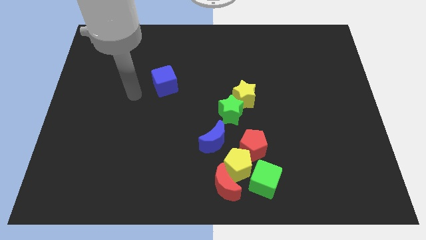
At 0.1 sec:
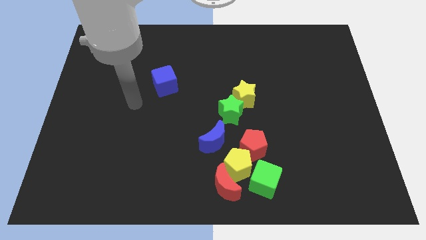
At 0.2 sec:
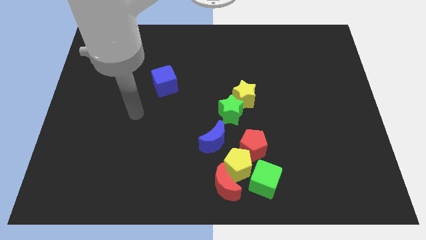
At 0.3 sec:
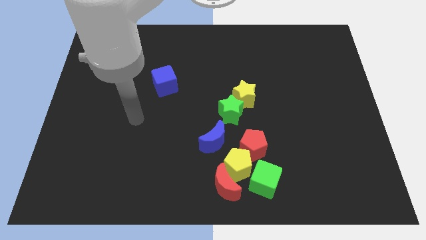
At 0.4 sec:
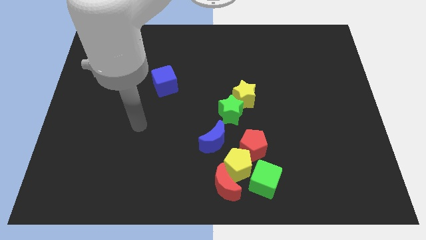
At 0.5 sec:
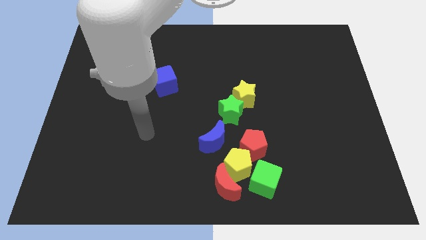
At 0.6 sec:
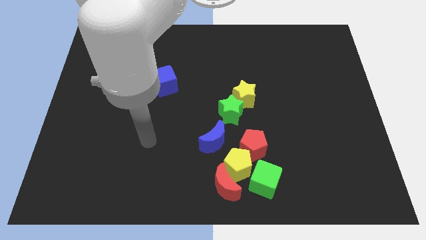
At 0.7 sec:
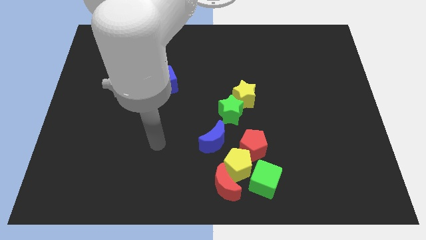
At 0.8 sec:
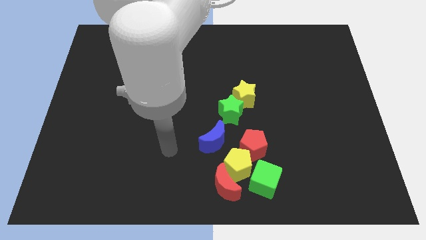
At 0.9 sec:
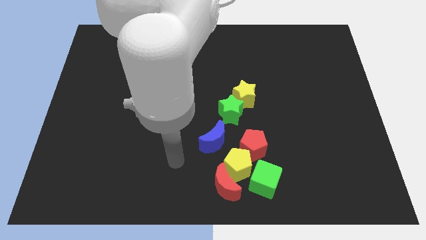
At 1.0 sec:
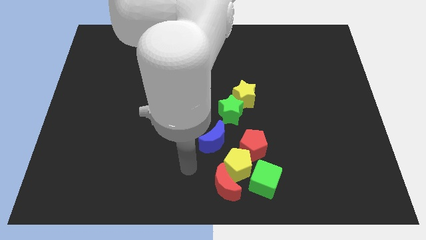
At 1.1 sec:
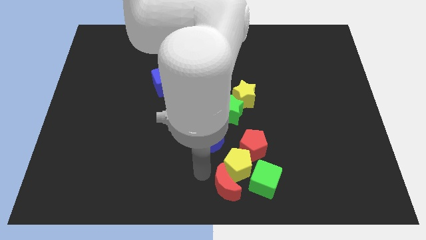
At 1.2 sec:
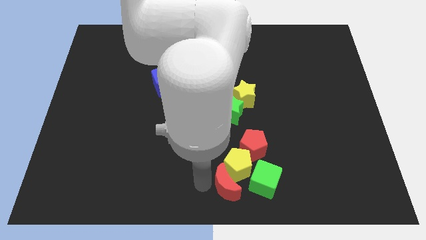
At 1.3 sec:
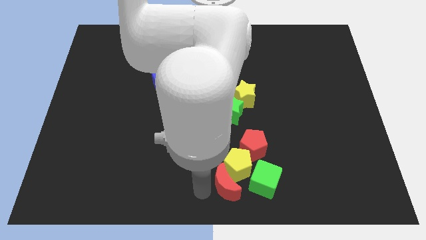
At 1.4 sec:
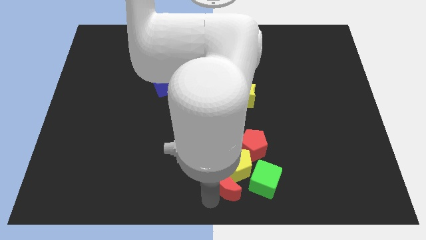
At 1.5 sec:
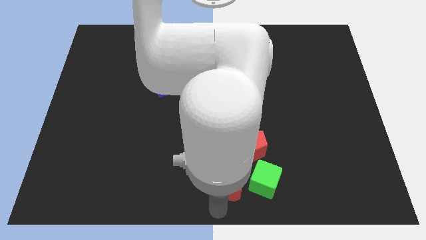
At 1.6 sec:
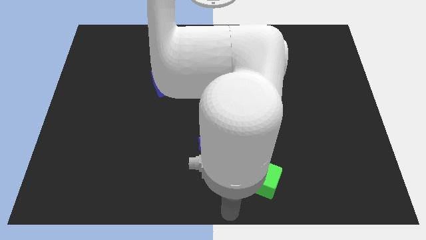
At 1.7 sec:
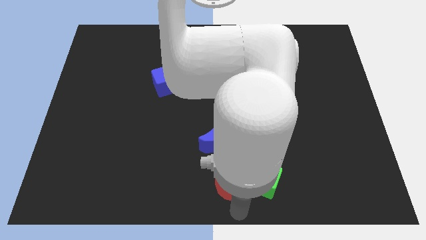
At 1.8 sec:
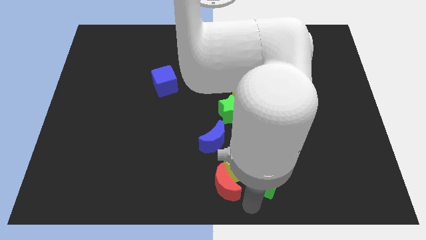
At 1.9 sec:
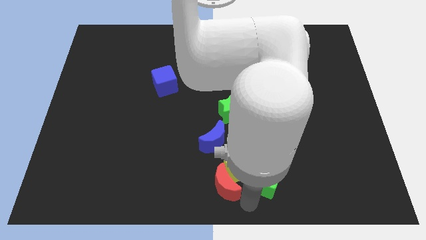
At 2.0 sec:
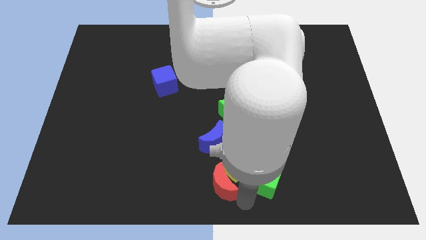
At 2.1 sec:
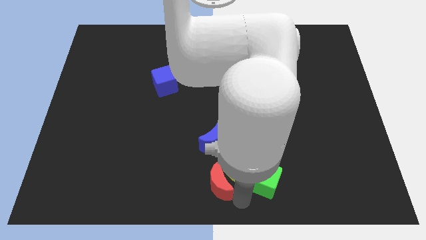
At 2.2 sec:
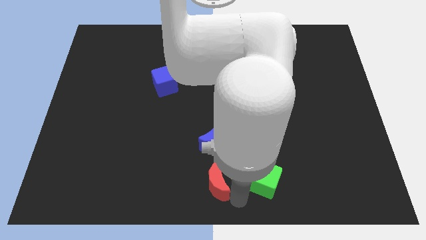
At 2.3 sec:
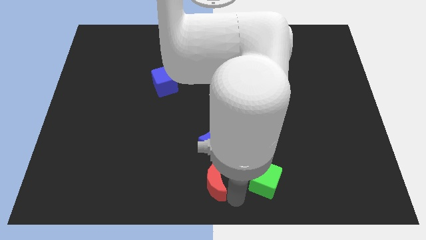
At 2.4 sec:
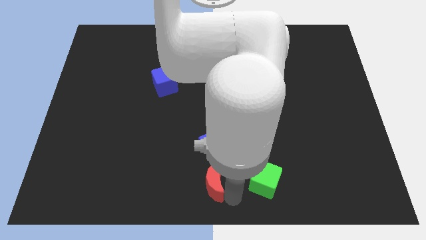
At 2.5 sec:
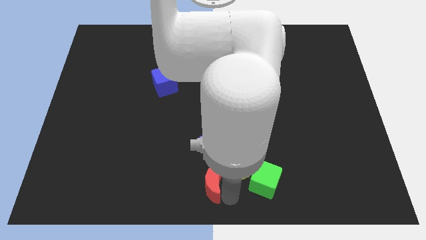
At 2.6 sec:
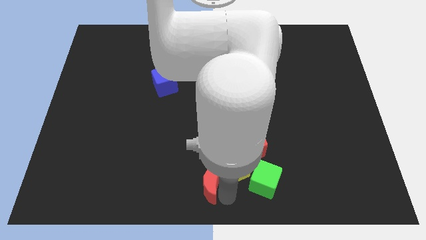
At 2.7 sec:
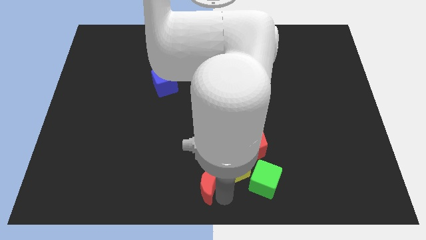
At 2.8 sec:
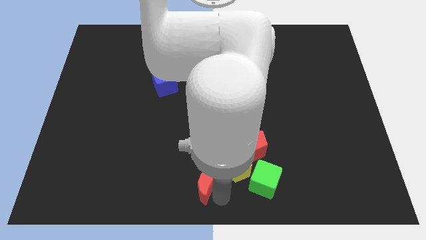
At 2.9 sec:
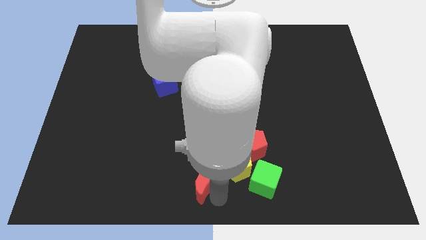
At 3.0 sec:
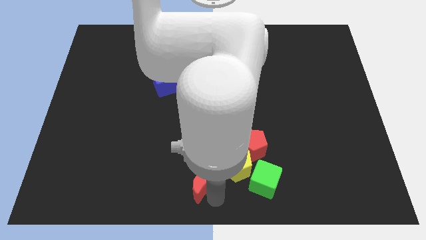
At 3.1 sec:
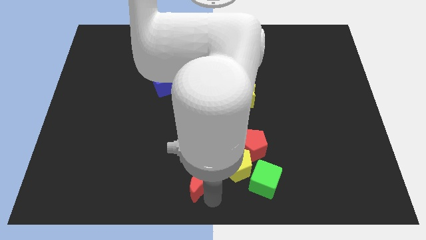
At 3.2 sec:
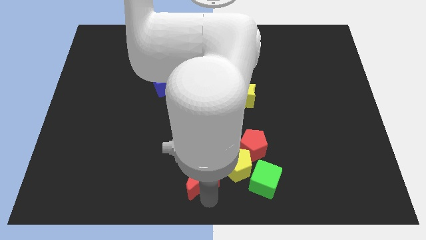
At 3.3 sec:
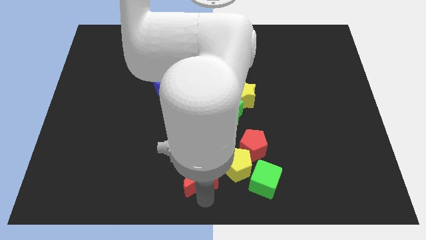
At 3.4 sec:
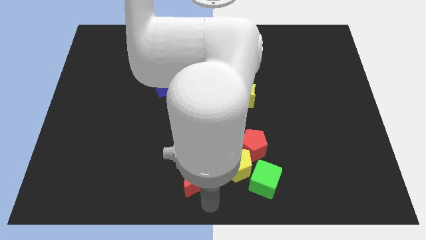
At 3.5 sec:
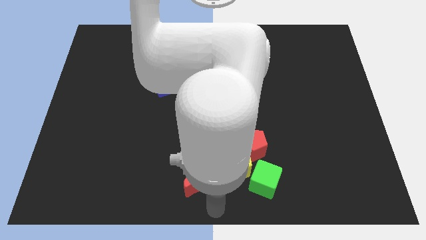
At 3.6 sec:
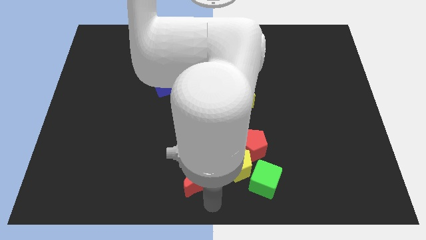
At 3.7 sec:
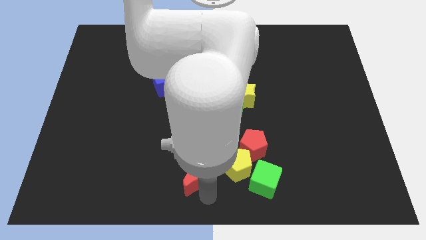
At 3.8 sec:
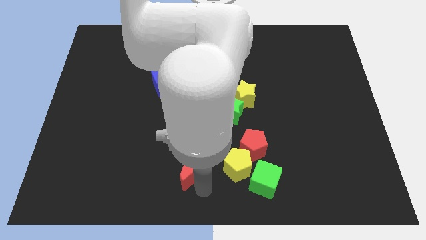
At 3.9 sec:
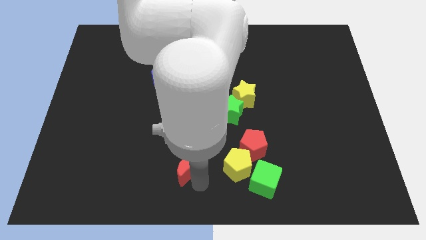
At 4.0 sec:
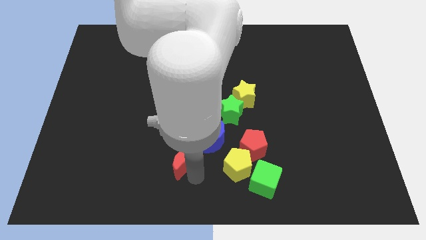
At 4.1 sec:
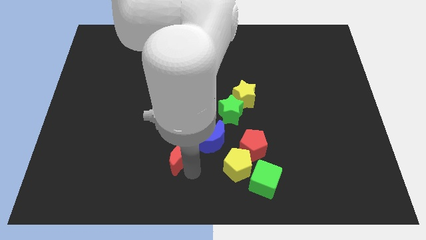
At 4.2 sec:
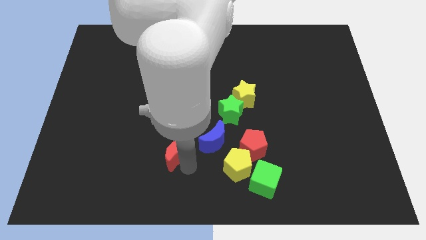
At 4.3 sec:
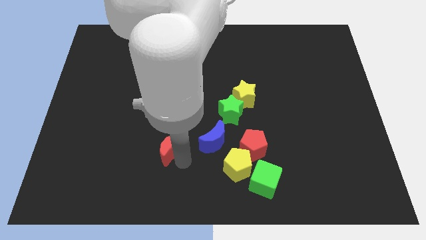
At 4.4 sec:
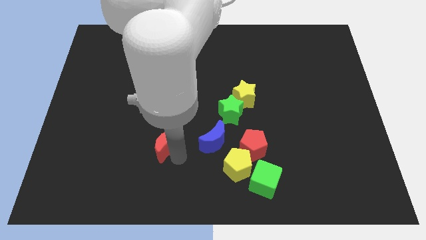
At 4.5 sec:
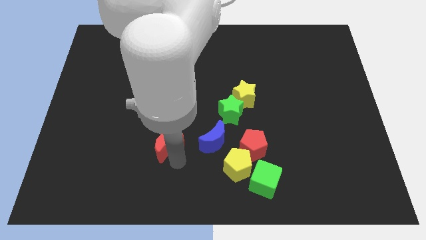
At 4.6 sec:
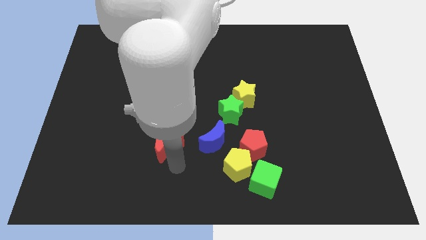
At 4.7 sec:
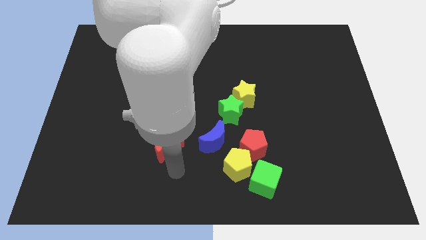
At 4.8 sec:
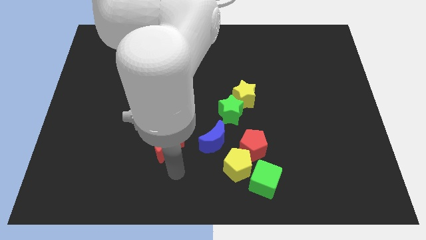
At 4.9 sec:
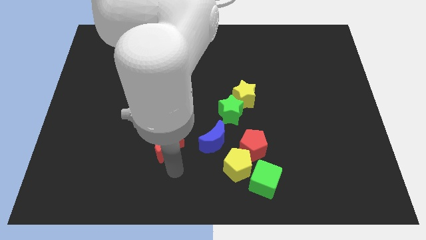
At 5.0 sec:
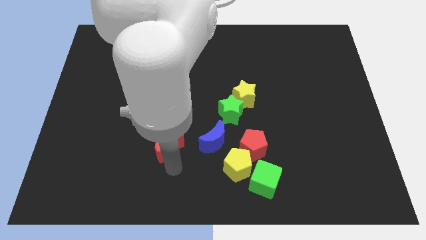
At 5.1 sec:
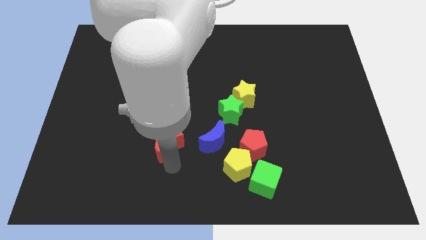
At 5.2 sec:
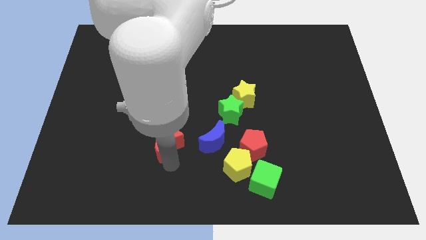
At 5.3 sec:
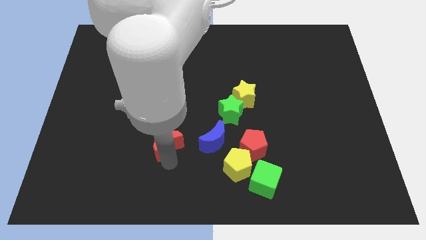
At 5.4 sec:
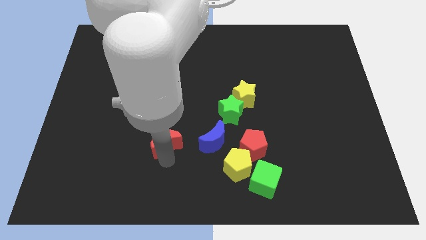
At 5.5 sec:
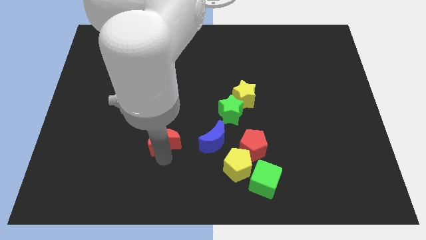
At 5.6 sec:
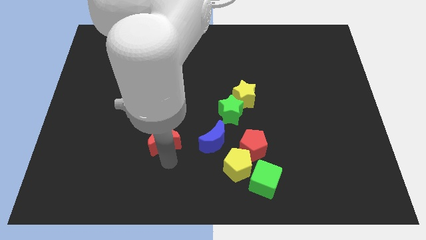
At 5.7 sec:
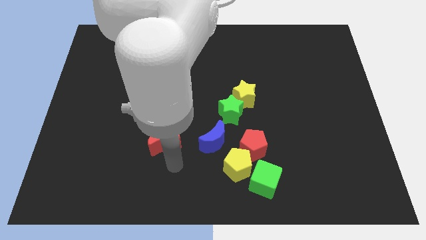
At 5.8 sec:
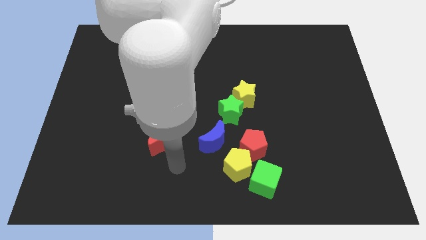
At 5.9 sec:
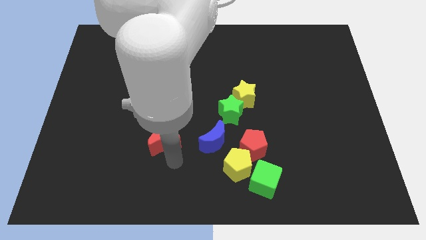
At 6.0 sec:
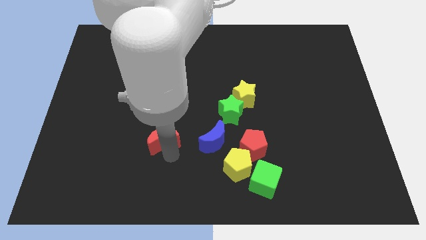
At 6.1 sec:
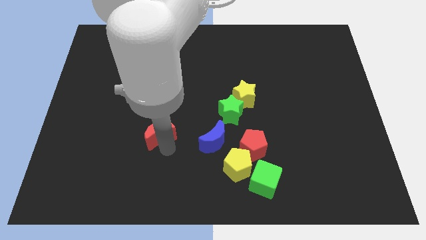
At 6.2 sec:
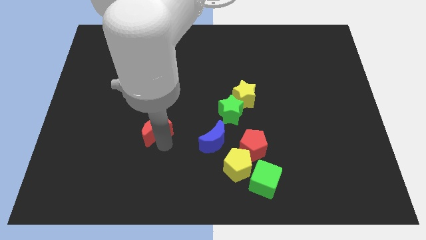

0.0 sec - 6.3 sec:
slide the red moon upwards and then to the left

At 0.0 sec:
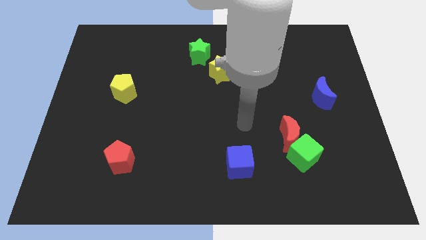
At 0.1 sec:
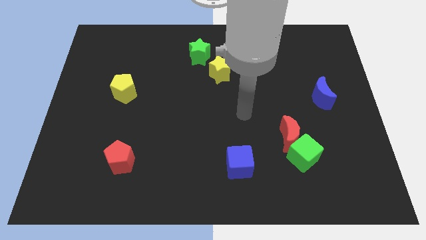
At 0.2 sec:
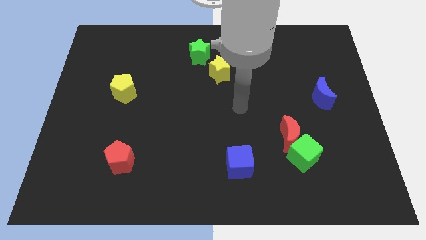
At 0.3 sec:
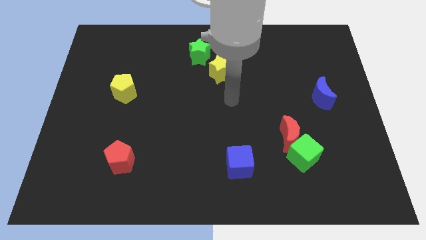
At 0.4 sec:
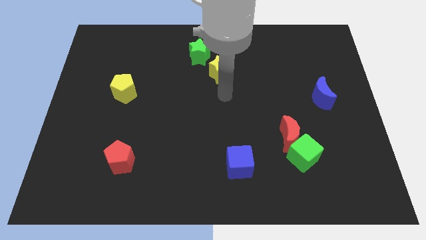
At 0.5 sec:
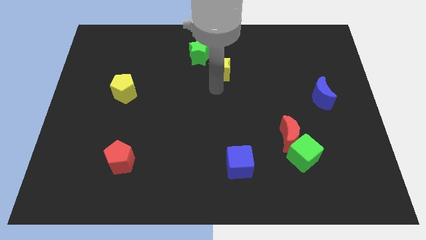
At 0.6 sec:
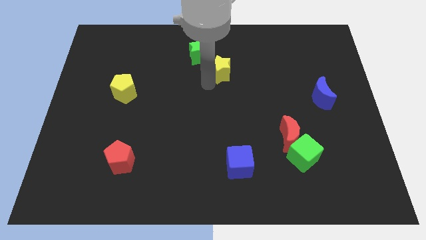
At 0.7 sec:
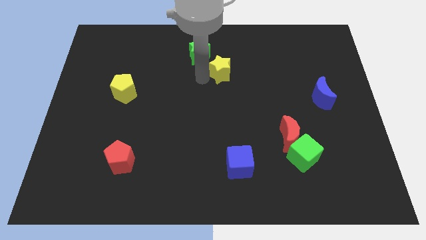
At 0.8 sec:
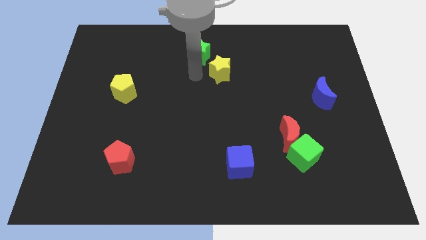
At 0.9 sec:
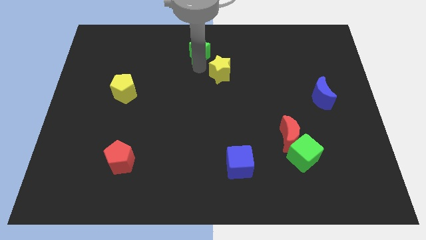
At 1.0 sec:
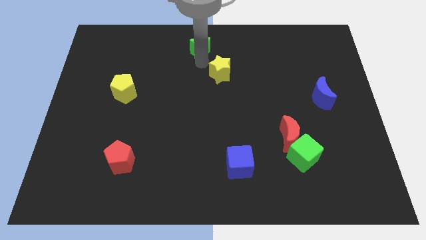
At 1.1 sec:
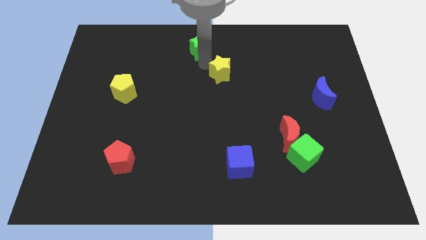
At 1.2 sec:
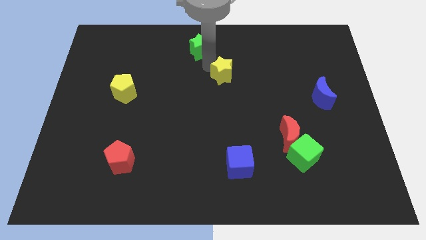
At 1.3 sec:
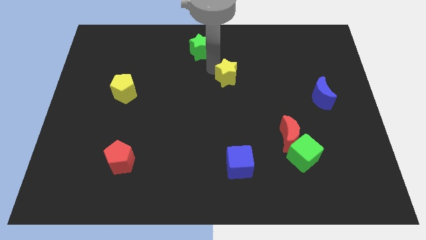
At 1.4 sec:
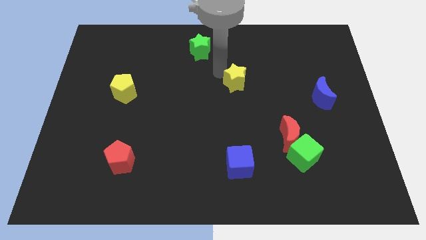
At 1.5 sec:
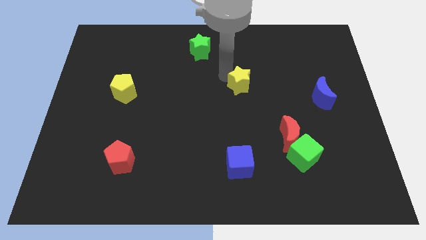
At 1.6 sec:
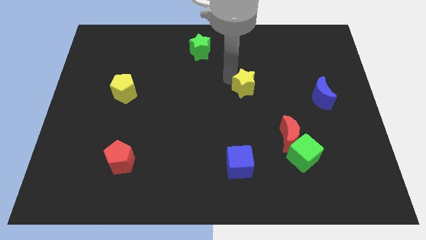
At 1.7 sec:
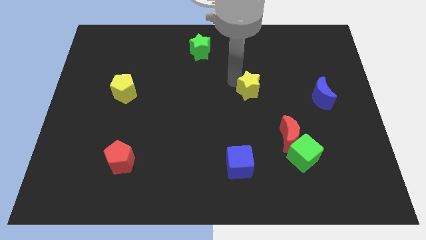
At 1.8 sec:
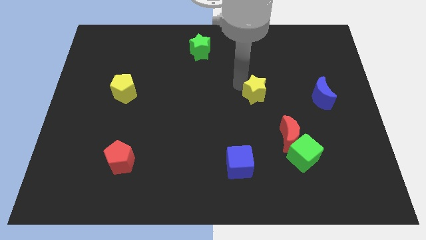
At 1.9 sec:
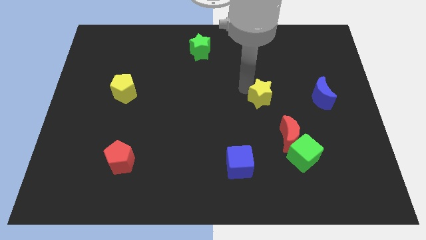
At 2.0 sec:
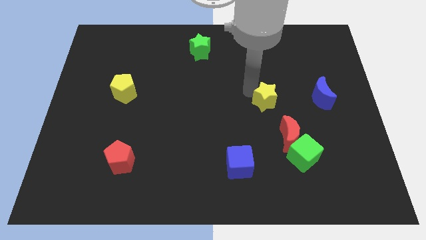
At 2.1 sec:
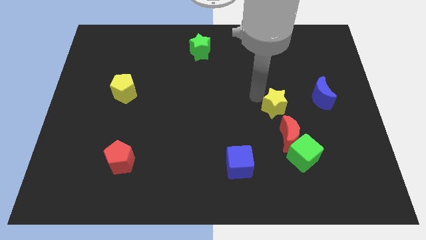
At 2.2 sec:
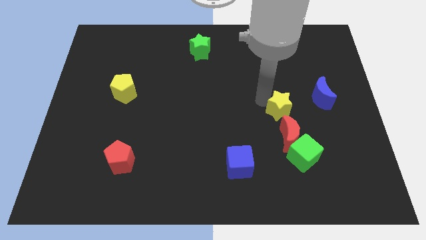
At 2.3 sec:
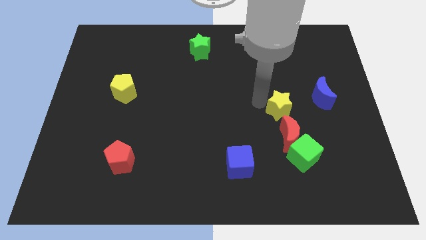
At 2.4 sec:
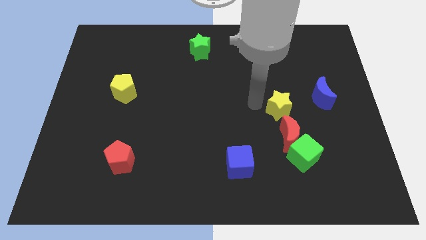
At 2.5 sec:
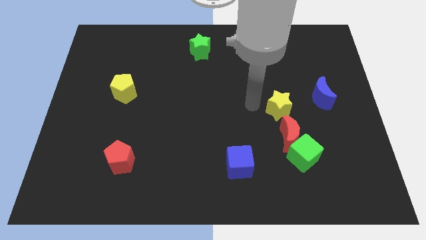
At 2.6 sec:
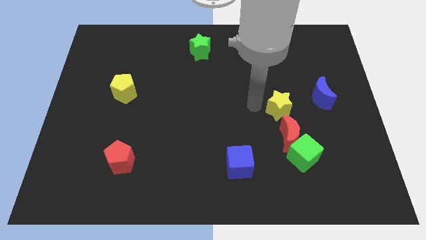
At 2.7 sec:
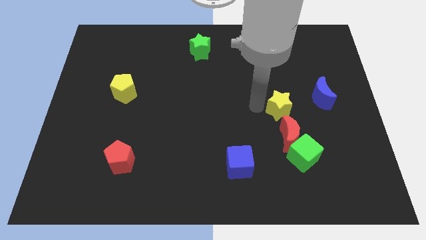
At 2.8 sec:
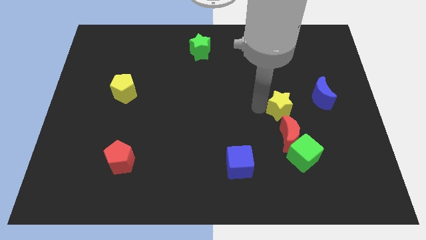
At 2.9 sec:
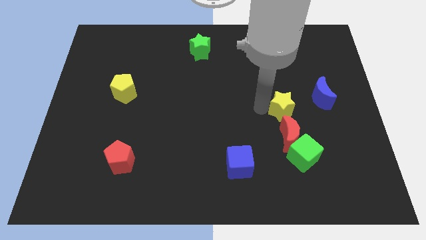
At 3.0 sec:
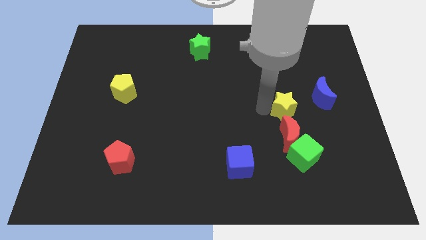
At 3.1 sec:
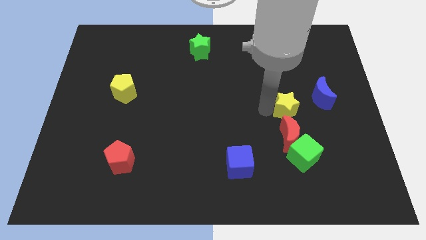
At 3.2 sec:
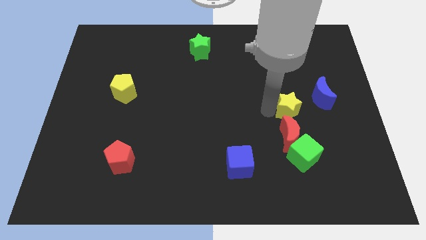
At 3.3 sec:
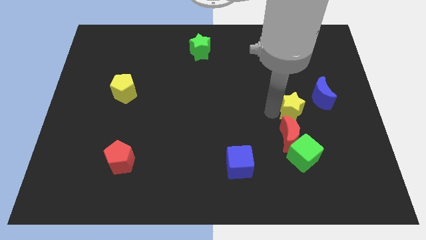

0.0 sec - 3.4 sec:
slide the yellow star down and then right
